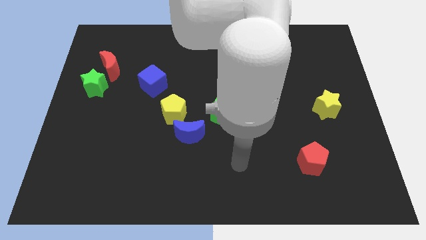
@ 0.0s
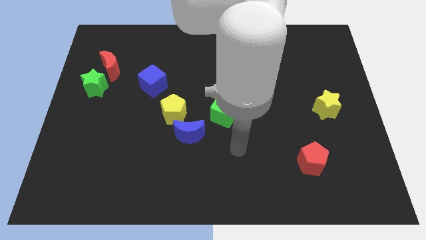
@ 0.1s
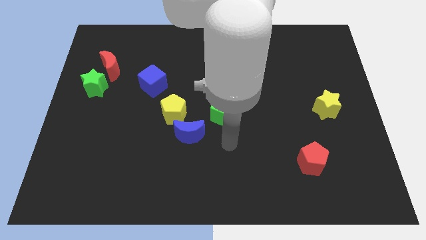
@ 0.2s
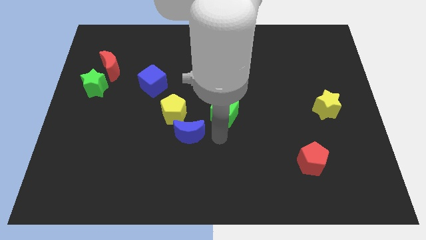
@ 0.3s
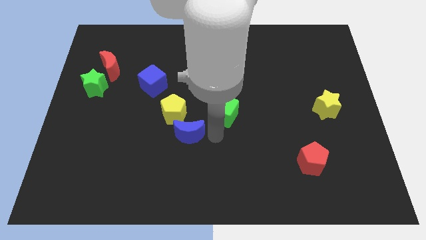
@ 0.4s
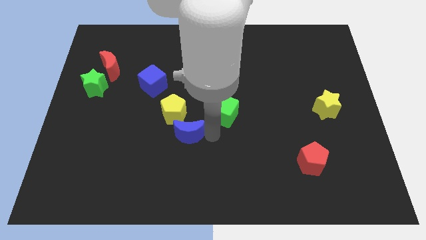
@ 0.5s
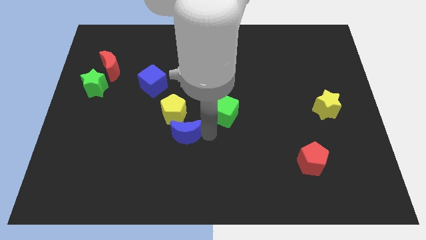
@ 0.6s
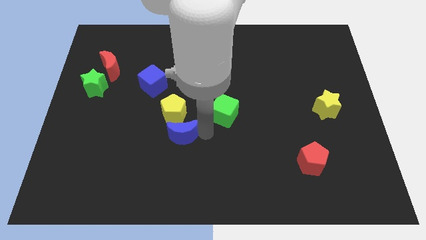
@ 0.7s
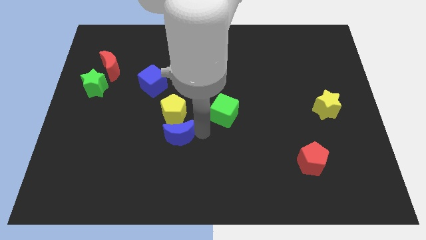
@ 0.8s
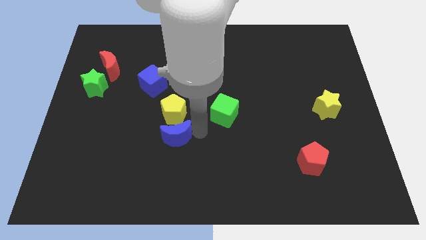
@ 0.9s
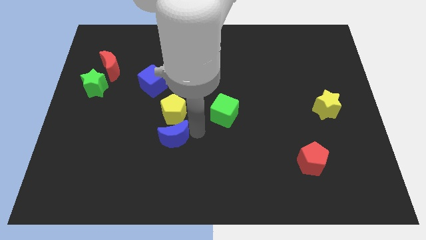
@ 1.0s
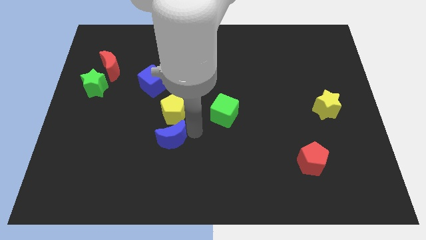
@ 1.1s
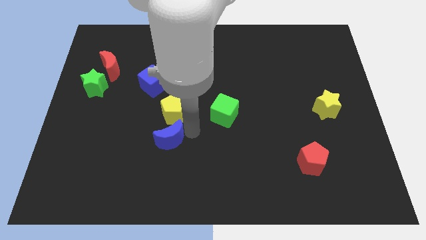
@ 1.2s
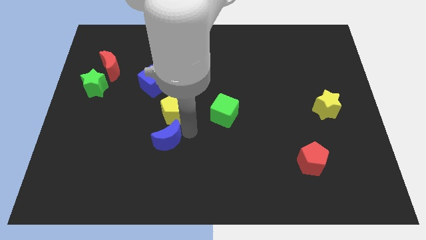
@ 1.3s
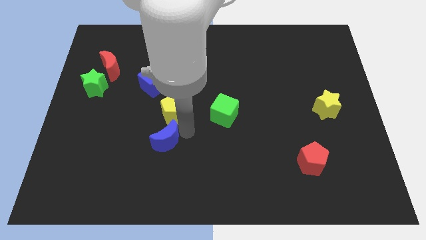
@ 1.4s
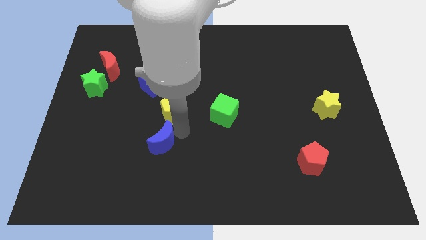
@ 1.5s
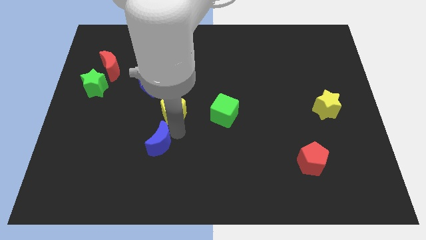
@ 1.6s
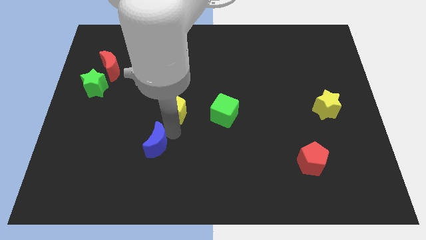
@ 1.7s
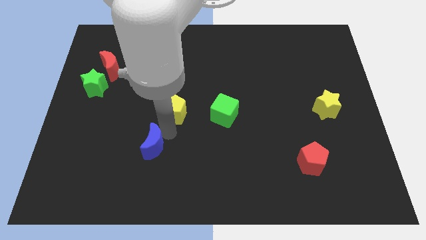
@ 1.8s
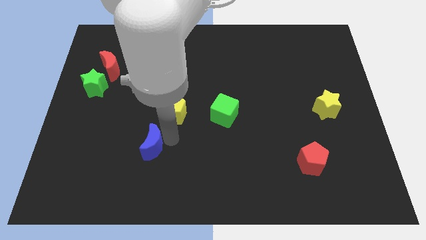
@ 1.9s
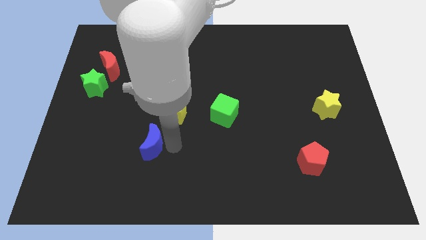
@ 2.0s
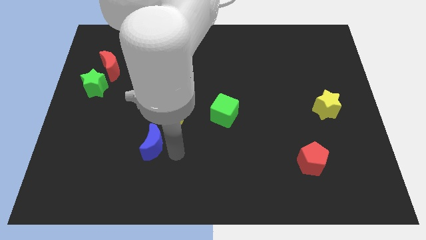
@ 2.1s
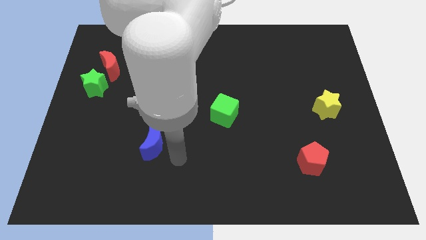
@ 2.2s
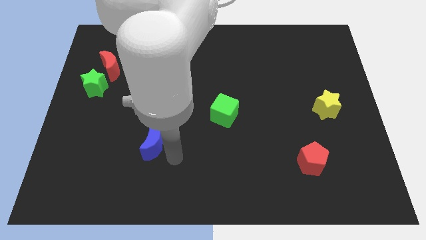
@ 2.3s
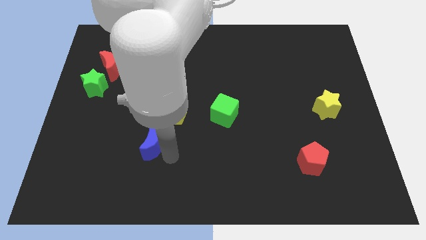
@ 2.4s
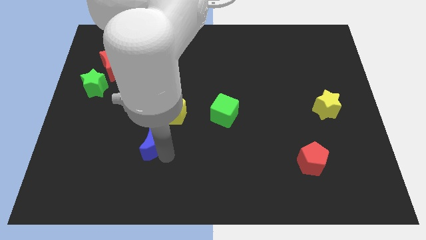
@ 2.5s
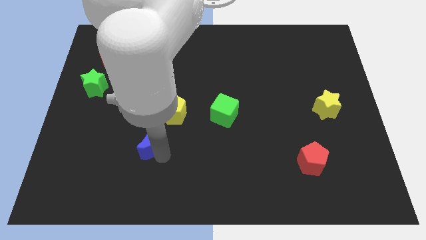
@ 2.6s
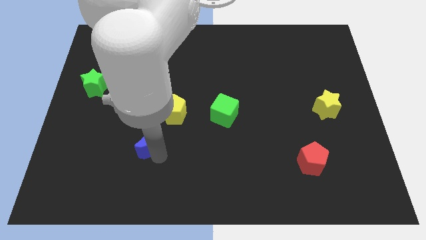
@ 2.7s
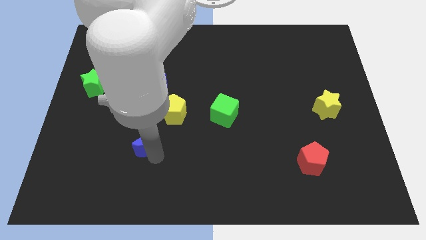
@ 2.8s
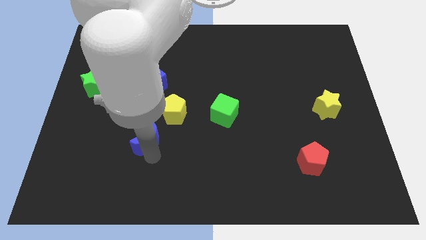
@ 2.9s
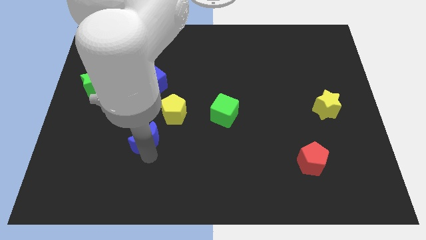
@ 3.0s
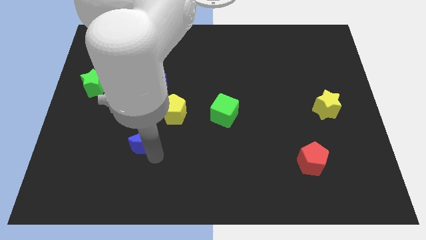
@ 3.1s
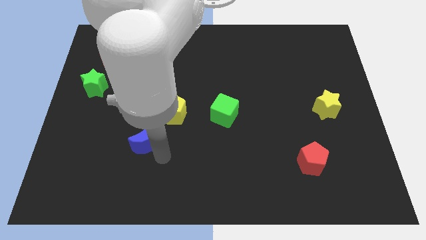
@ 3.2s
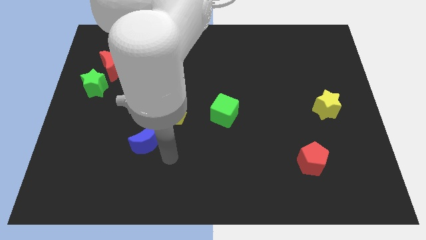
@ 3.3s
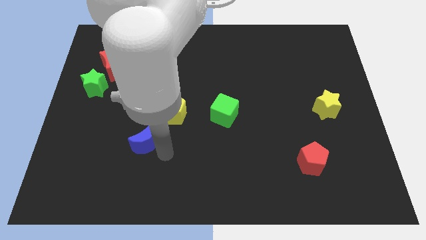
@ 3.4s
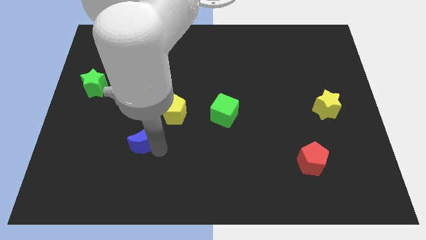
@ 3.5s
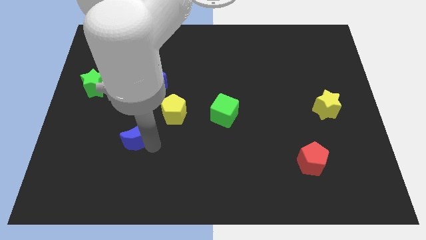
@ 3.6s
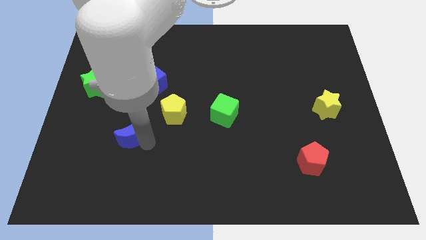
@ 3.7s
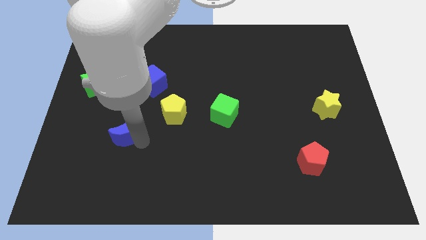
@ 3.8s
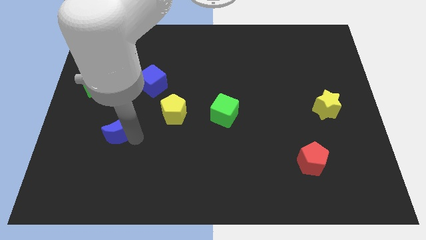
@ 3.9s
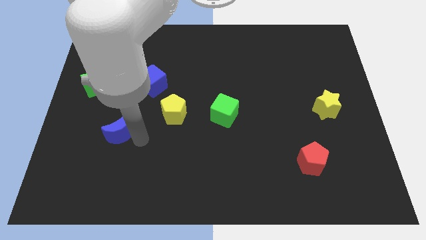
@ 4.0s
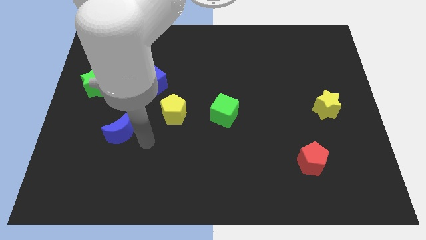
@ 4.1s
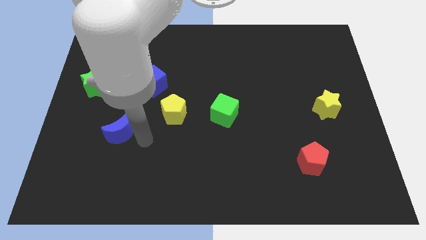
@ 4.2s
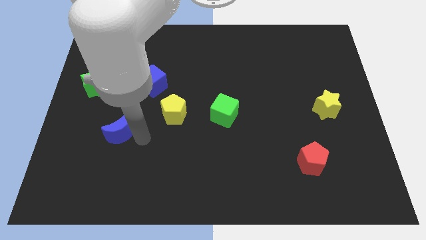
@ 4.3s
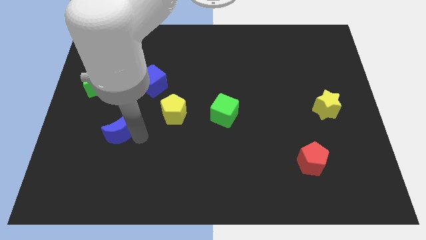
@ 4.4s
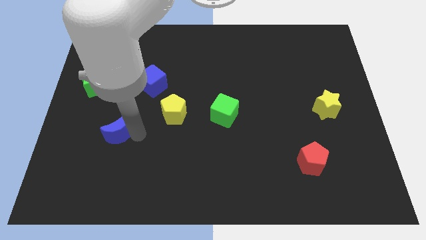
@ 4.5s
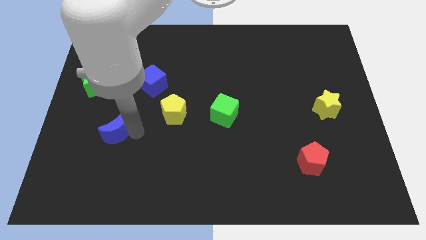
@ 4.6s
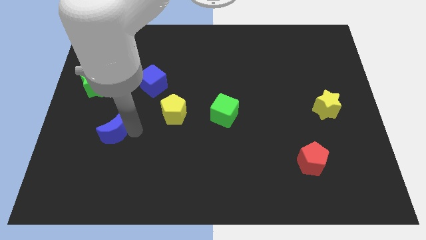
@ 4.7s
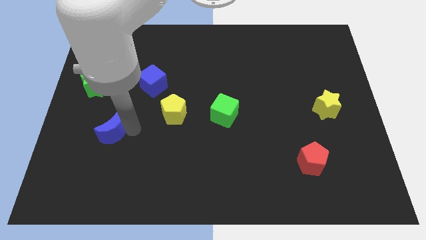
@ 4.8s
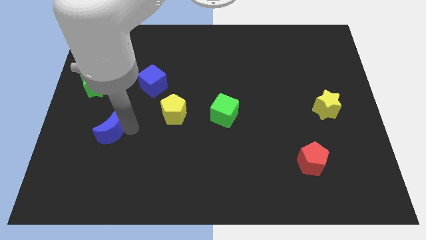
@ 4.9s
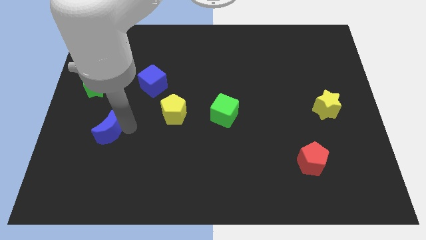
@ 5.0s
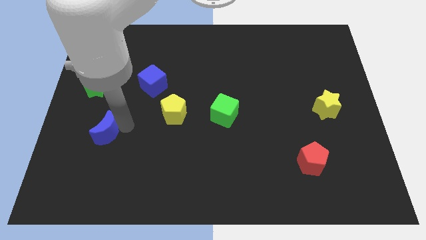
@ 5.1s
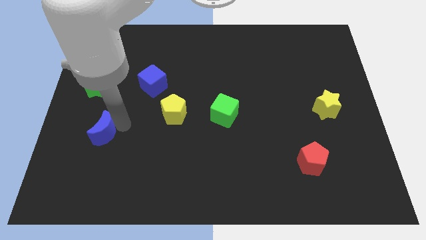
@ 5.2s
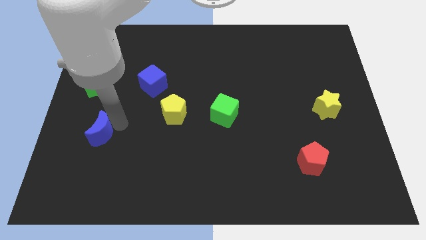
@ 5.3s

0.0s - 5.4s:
put the blue moon to the bottom side of the green star

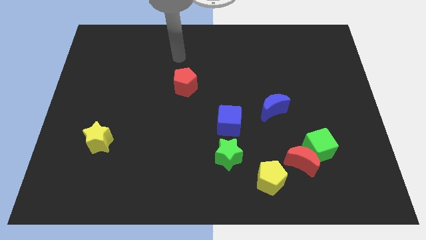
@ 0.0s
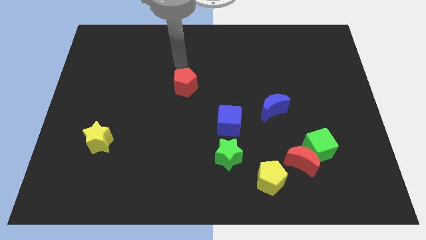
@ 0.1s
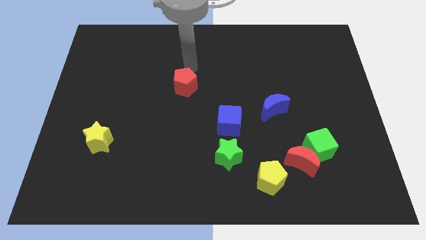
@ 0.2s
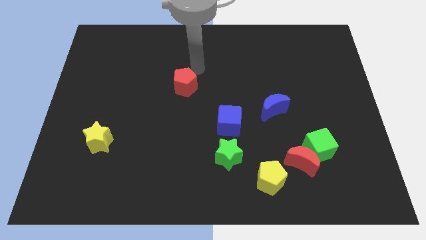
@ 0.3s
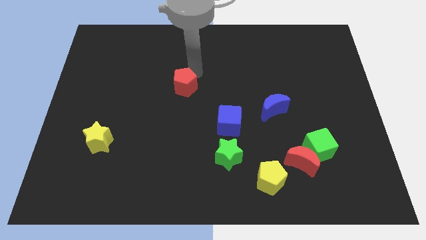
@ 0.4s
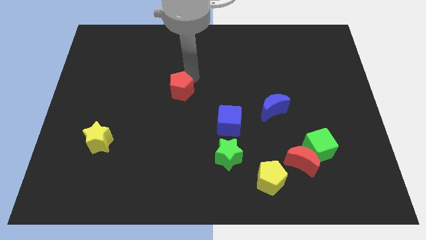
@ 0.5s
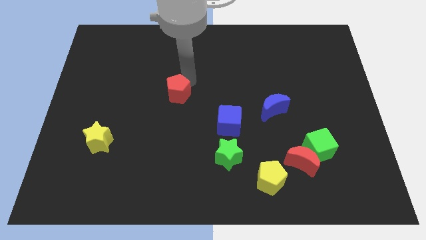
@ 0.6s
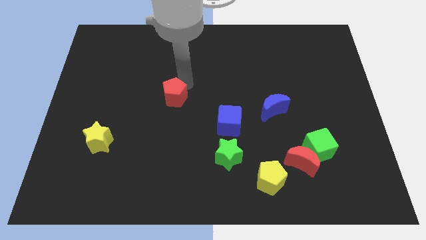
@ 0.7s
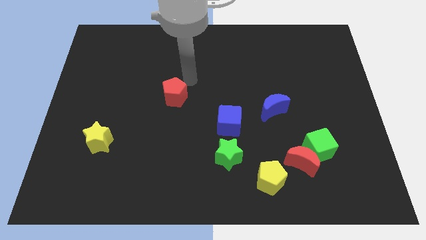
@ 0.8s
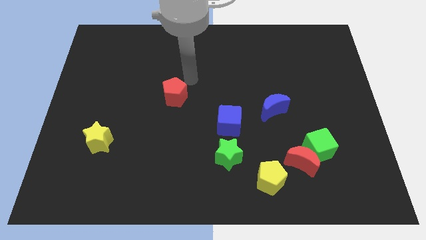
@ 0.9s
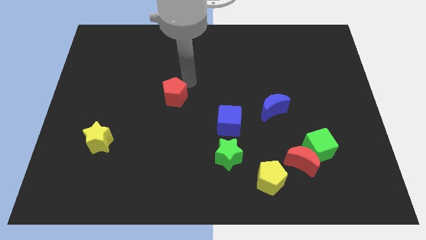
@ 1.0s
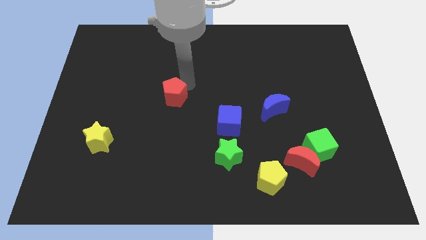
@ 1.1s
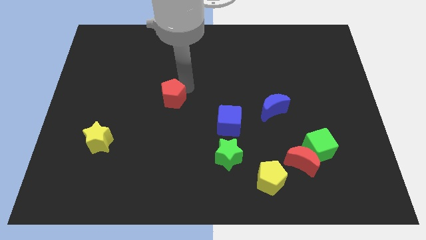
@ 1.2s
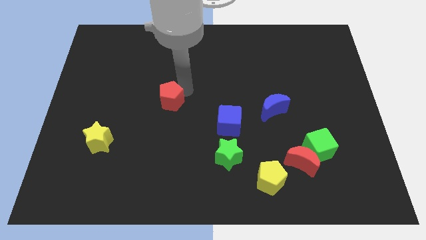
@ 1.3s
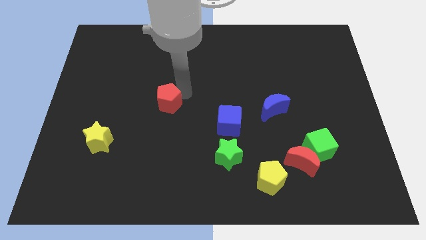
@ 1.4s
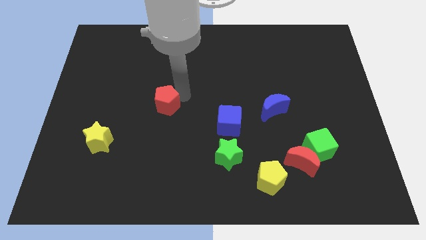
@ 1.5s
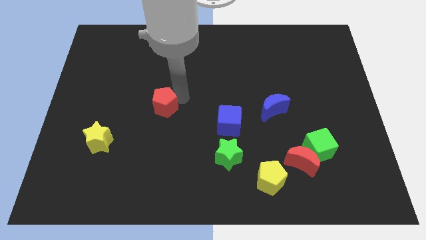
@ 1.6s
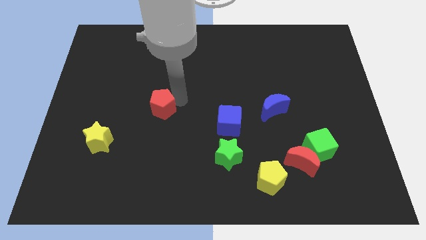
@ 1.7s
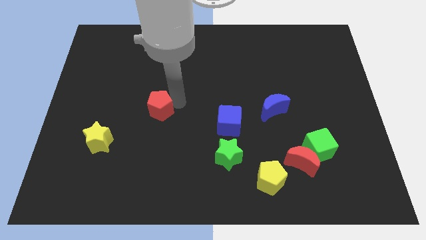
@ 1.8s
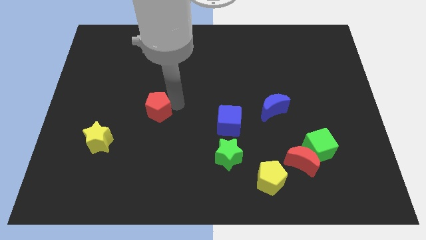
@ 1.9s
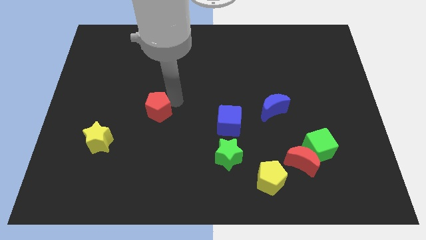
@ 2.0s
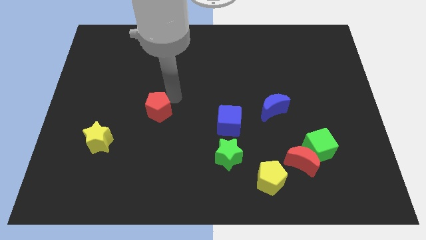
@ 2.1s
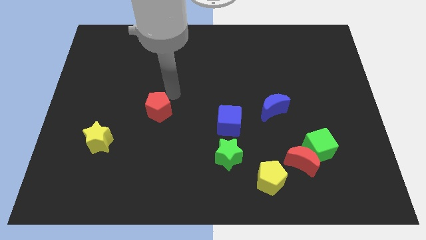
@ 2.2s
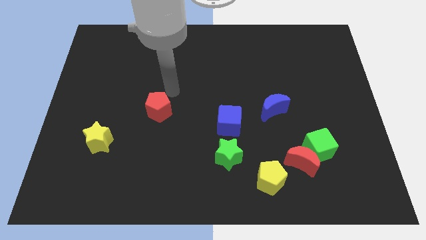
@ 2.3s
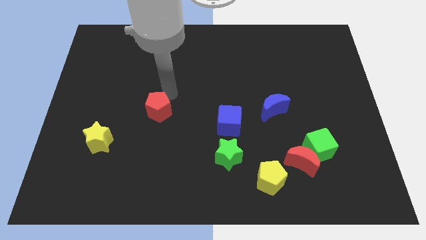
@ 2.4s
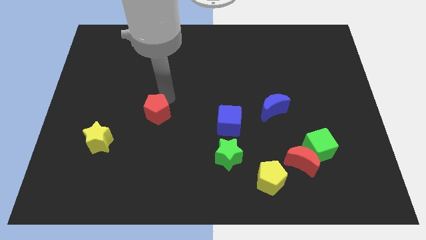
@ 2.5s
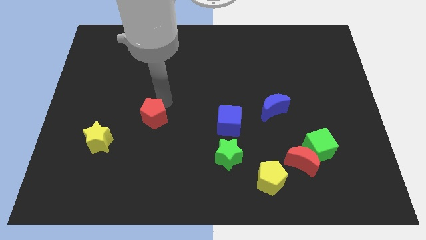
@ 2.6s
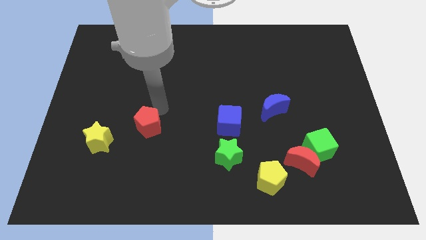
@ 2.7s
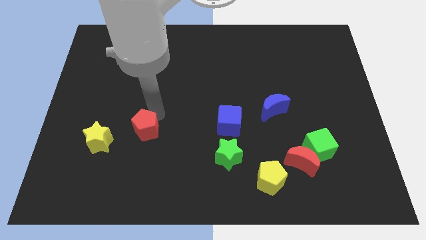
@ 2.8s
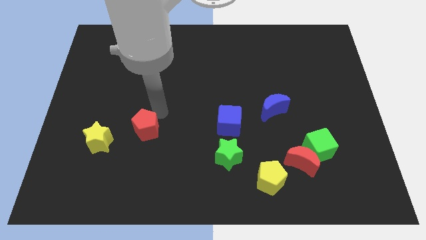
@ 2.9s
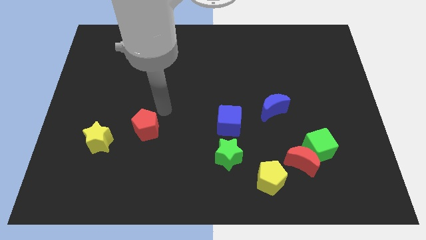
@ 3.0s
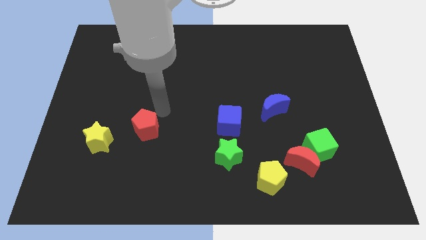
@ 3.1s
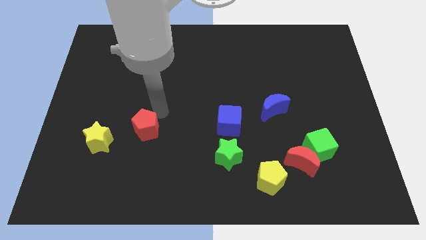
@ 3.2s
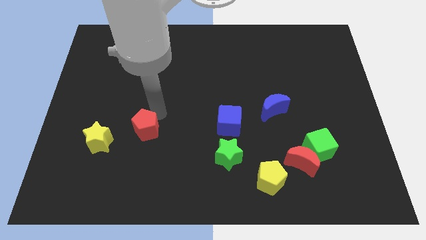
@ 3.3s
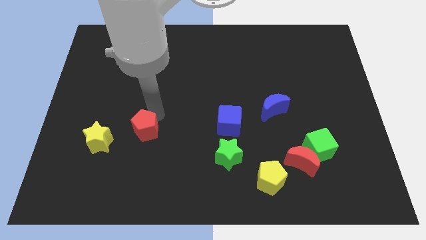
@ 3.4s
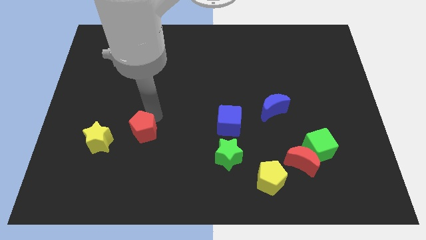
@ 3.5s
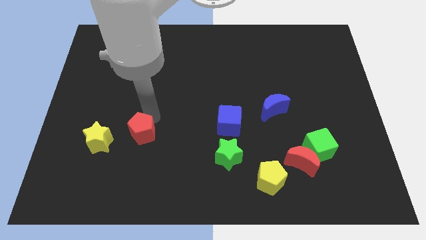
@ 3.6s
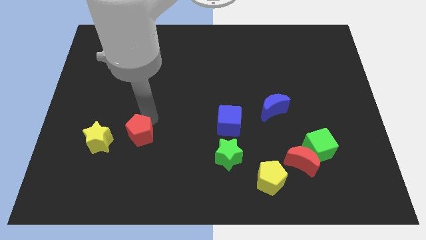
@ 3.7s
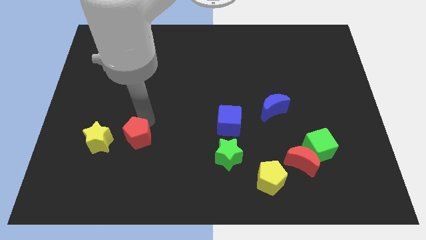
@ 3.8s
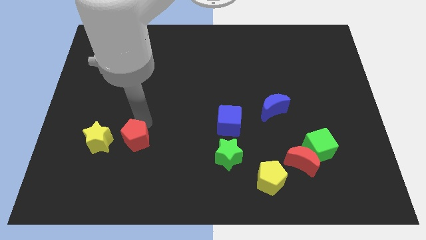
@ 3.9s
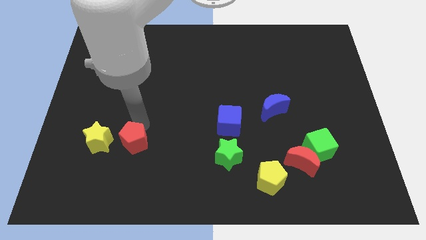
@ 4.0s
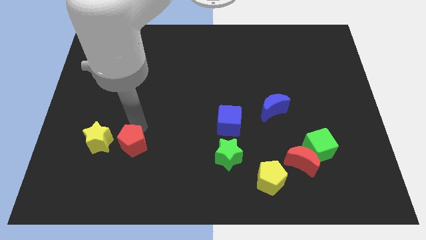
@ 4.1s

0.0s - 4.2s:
move the red pentagon diagonally down and to the right of the yellow star
